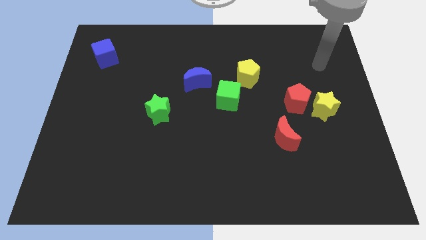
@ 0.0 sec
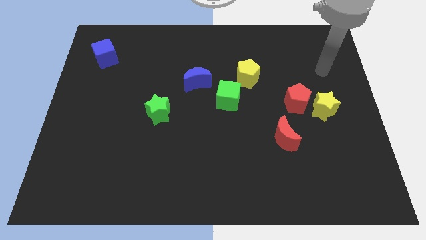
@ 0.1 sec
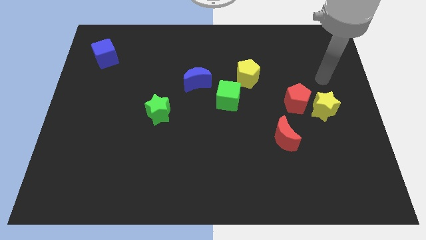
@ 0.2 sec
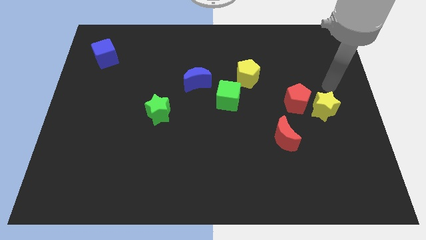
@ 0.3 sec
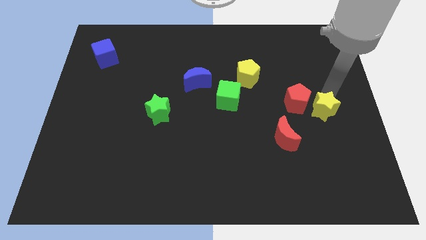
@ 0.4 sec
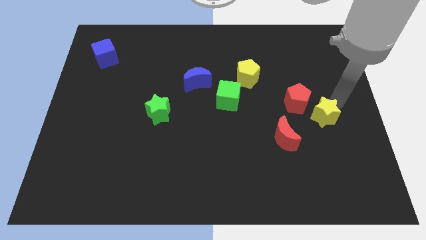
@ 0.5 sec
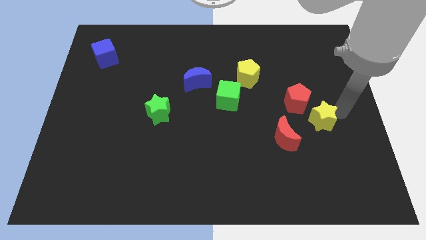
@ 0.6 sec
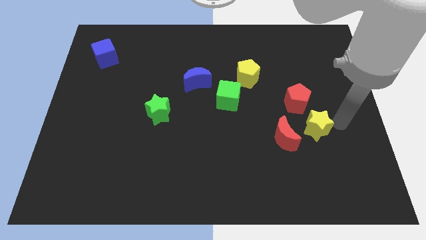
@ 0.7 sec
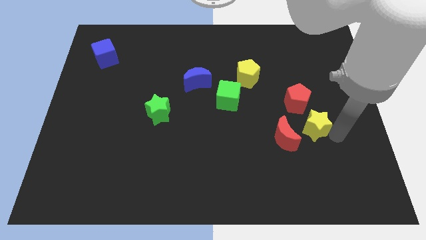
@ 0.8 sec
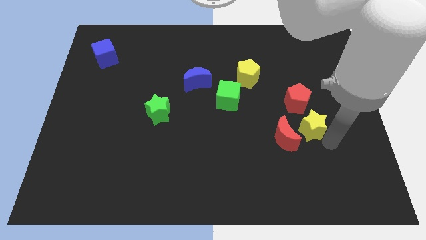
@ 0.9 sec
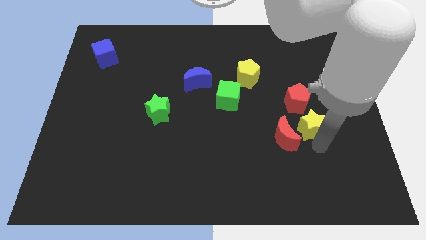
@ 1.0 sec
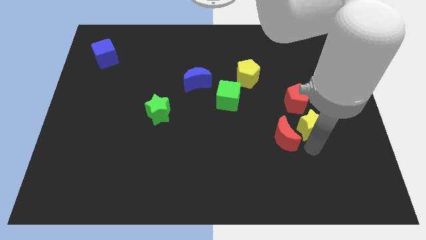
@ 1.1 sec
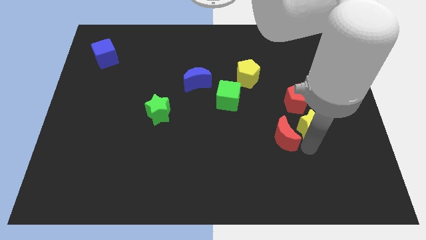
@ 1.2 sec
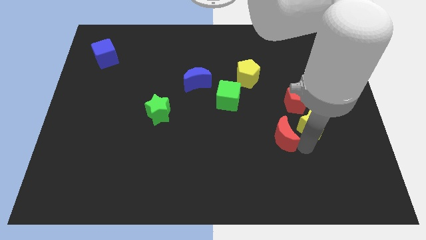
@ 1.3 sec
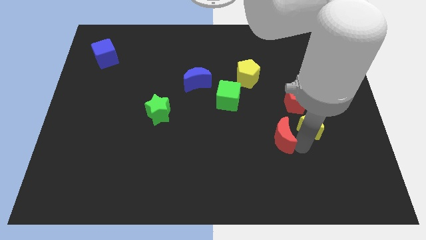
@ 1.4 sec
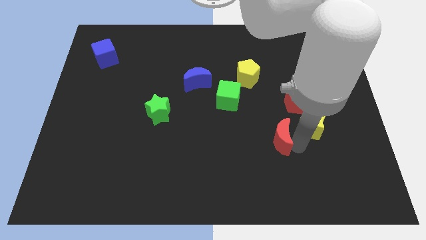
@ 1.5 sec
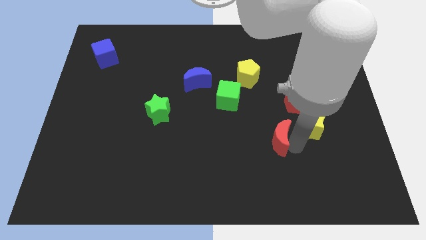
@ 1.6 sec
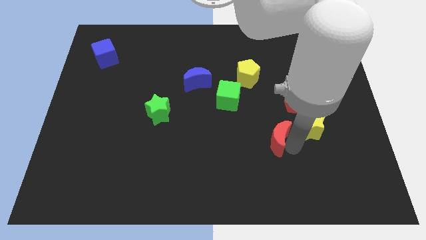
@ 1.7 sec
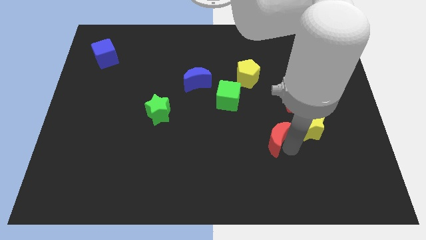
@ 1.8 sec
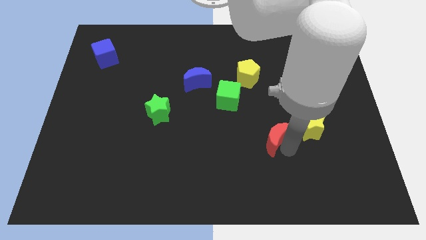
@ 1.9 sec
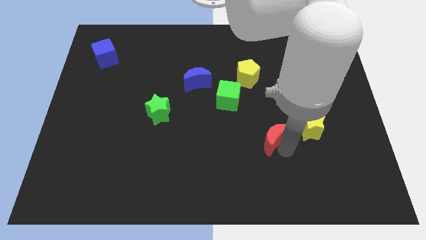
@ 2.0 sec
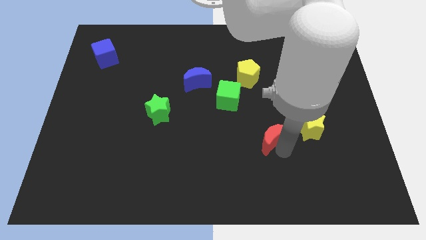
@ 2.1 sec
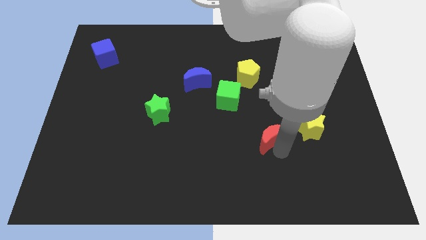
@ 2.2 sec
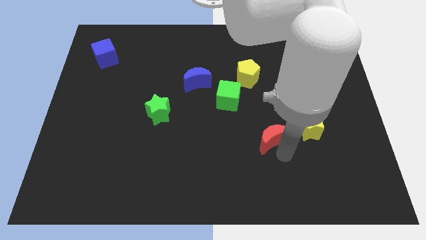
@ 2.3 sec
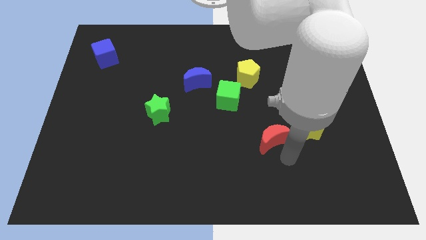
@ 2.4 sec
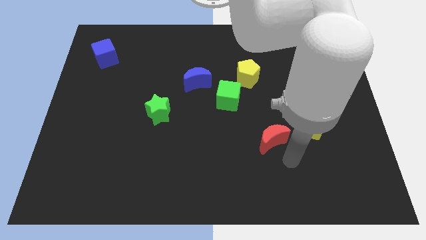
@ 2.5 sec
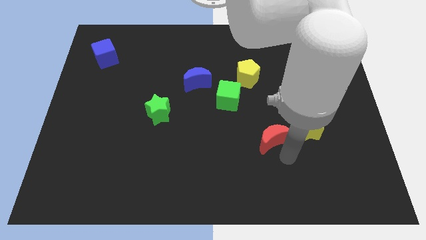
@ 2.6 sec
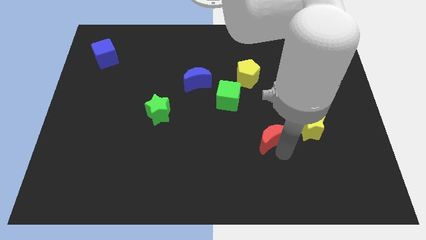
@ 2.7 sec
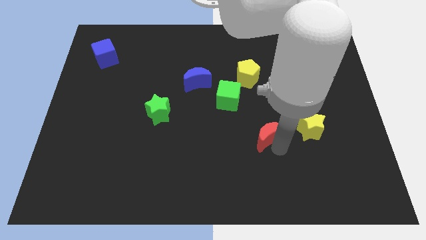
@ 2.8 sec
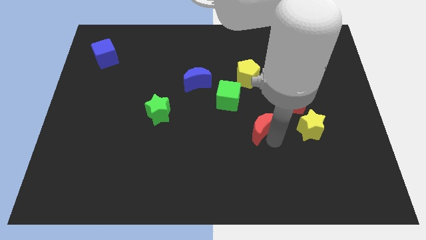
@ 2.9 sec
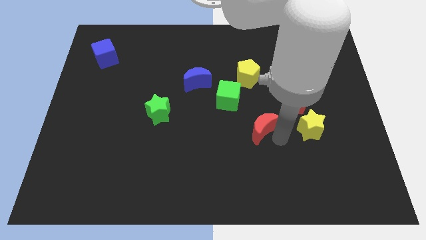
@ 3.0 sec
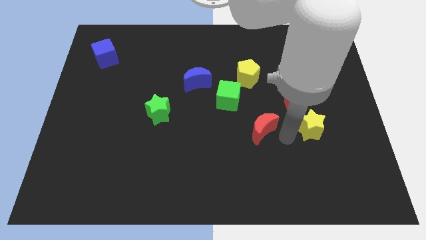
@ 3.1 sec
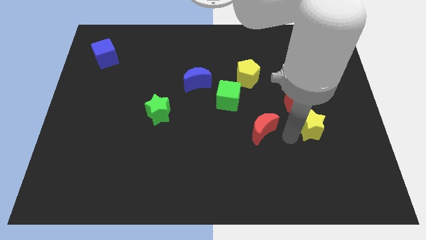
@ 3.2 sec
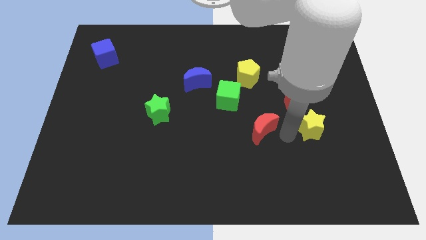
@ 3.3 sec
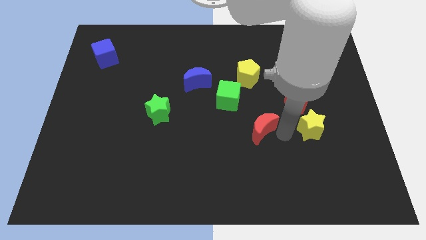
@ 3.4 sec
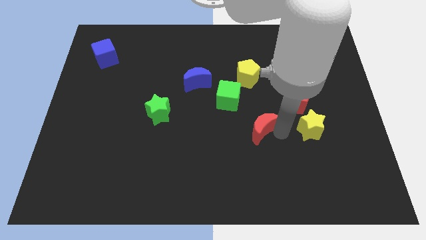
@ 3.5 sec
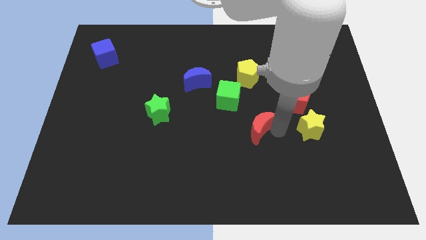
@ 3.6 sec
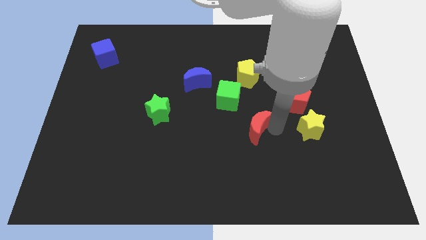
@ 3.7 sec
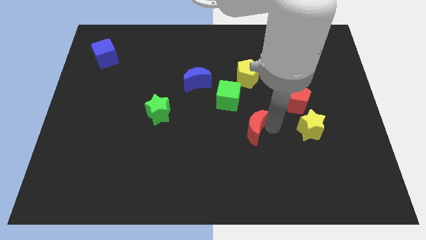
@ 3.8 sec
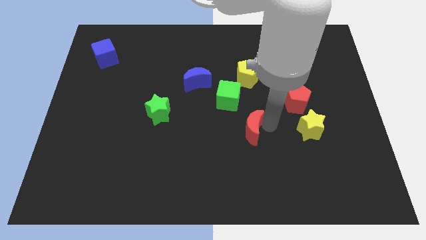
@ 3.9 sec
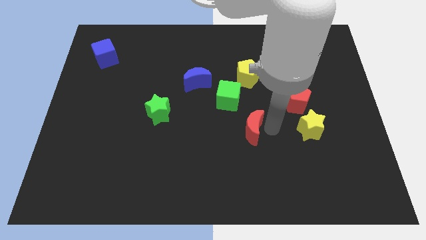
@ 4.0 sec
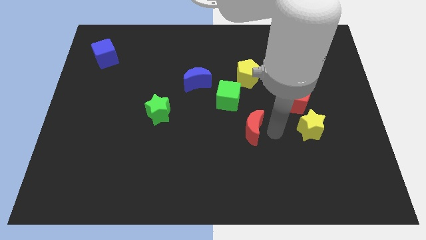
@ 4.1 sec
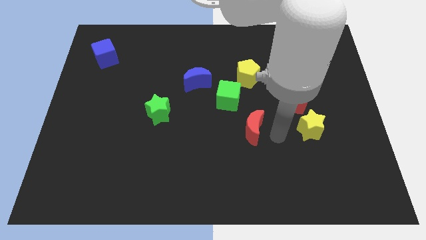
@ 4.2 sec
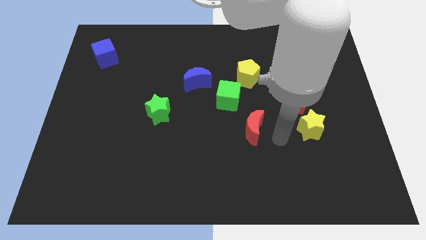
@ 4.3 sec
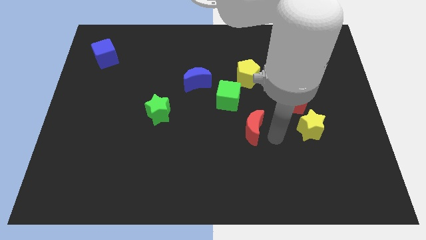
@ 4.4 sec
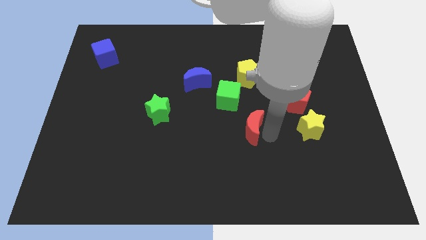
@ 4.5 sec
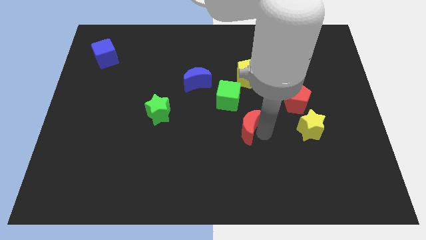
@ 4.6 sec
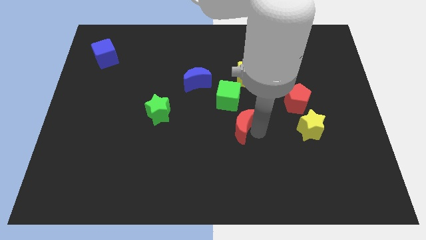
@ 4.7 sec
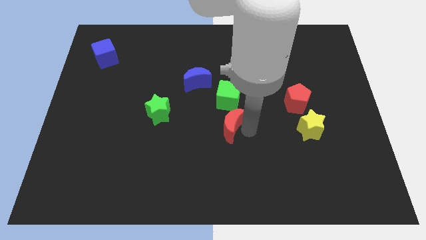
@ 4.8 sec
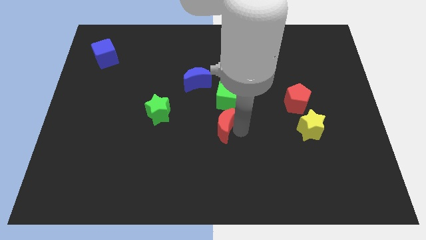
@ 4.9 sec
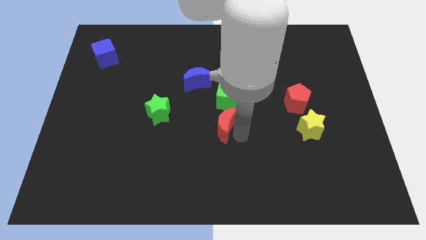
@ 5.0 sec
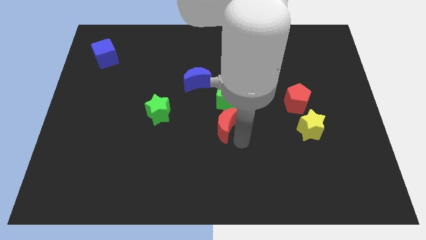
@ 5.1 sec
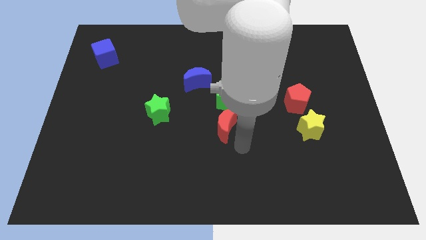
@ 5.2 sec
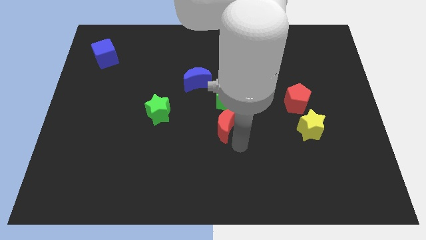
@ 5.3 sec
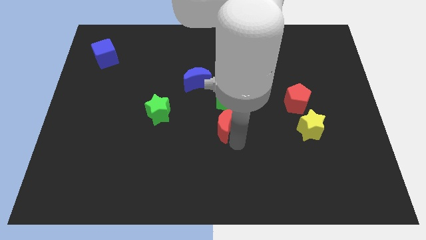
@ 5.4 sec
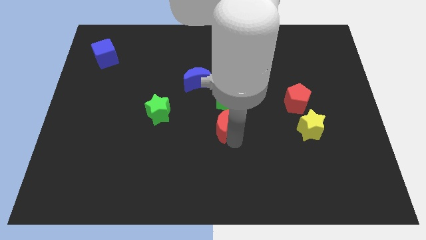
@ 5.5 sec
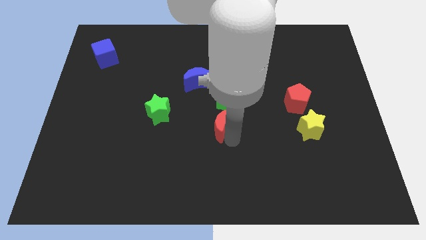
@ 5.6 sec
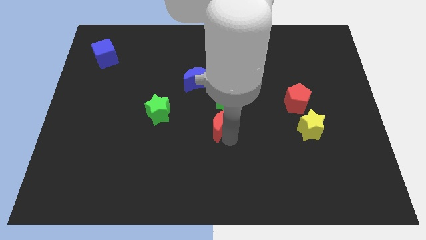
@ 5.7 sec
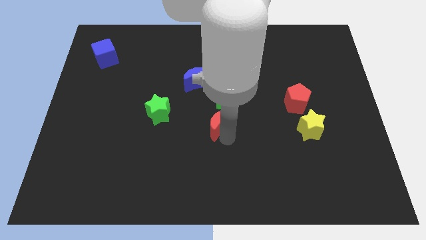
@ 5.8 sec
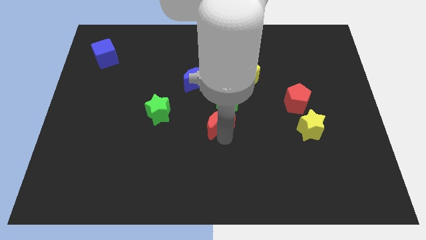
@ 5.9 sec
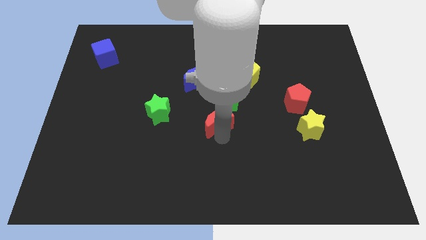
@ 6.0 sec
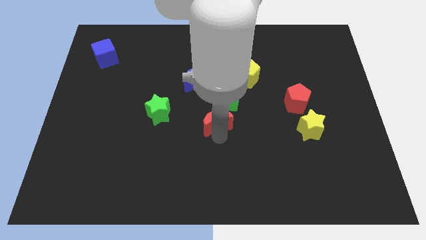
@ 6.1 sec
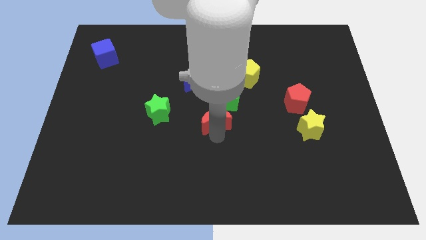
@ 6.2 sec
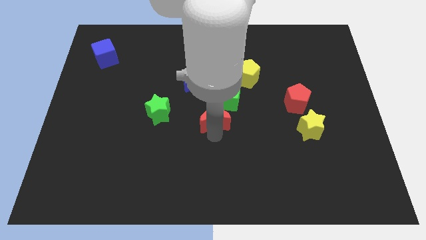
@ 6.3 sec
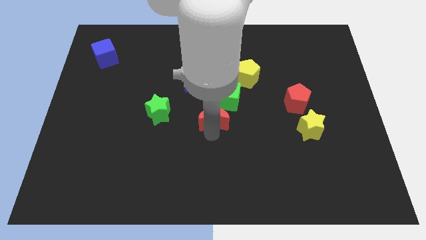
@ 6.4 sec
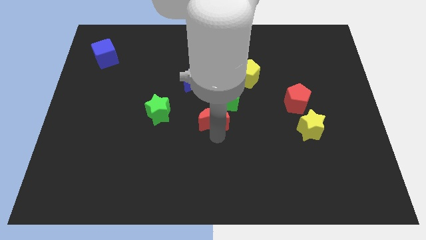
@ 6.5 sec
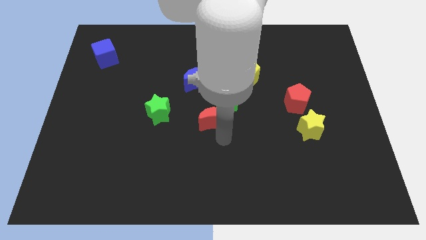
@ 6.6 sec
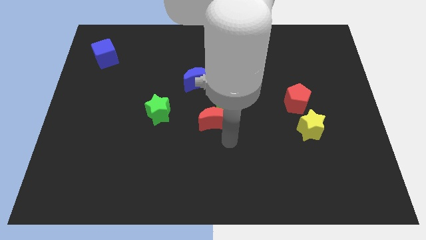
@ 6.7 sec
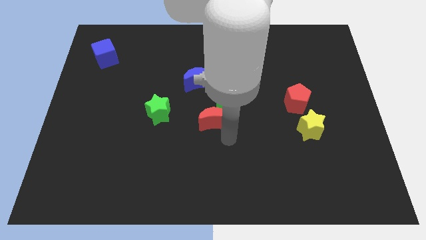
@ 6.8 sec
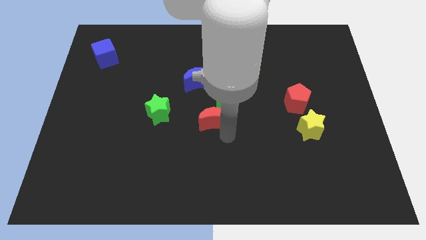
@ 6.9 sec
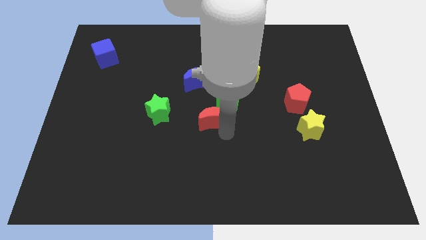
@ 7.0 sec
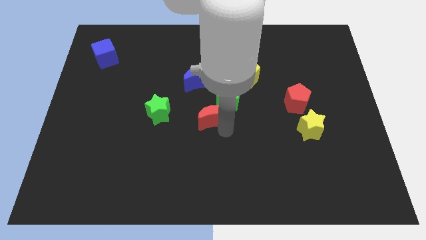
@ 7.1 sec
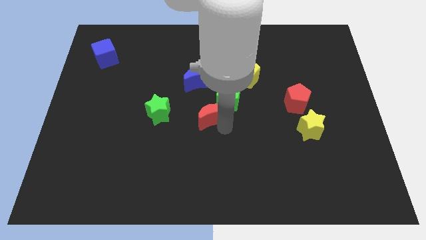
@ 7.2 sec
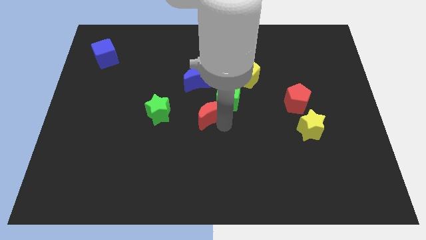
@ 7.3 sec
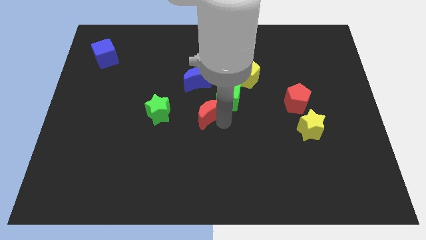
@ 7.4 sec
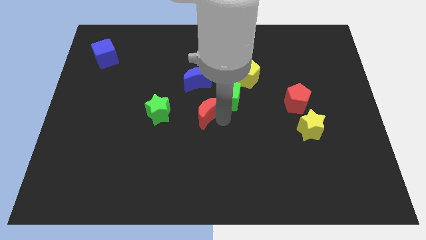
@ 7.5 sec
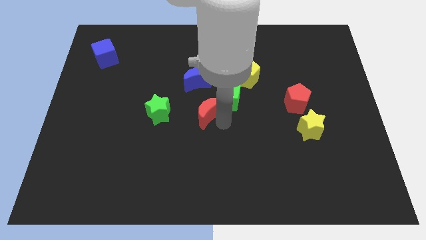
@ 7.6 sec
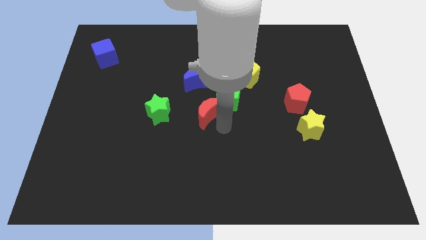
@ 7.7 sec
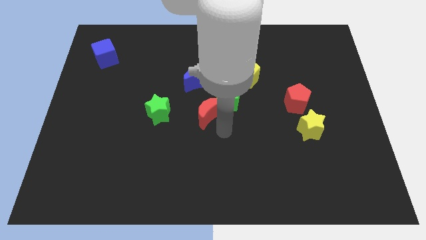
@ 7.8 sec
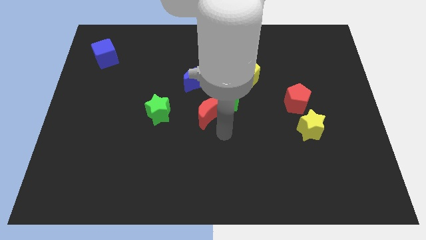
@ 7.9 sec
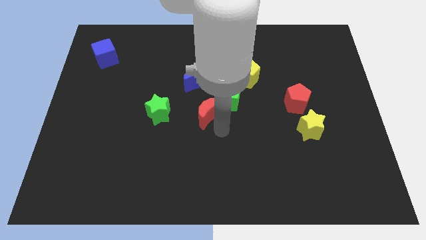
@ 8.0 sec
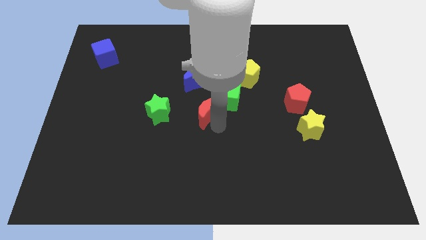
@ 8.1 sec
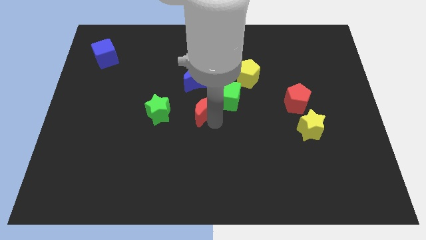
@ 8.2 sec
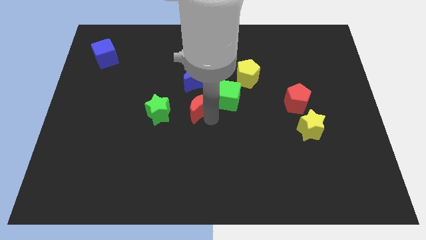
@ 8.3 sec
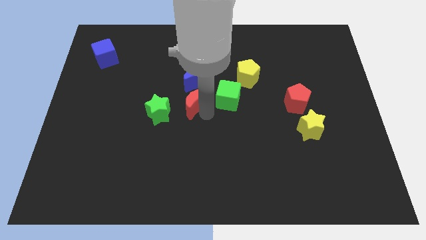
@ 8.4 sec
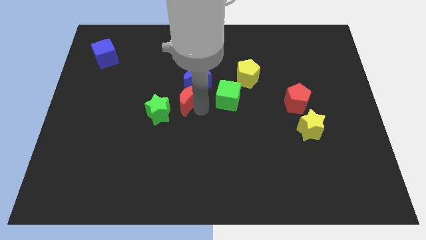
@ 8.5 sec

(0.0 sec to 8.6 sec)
slide the red moon up and to the left diagonally
